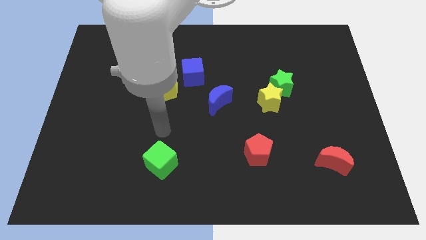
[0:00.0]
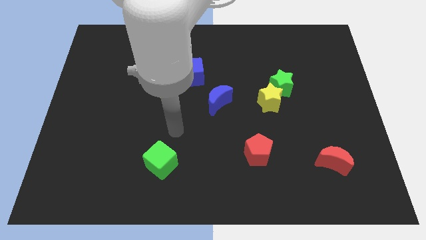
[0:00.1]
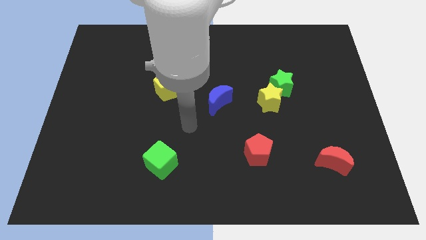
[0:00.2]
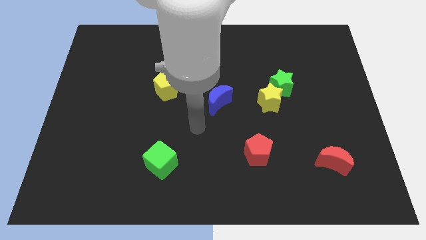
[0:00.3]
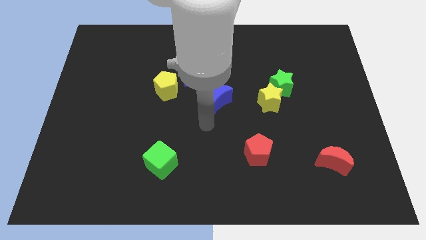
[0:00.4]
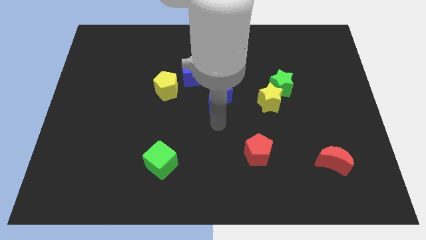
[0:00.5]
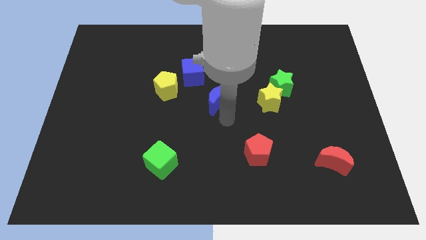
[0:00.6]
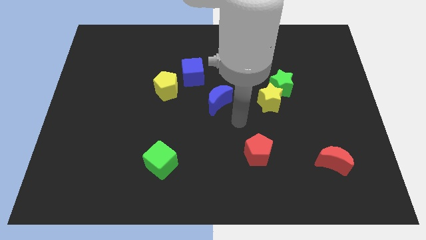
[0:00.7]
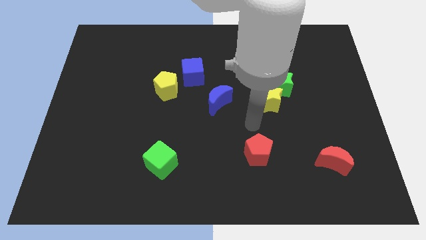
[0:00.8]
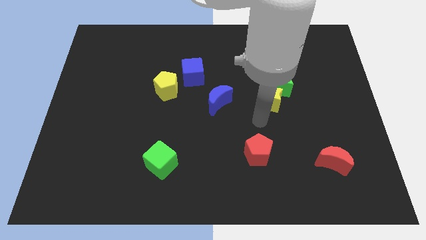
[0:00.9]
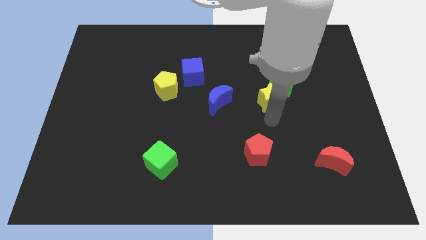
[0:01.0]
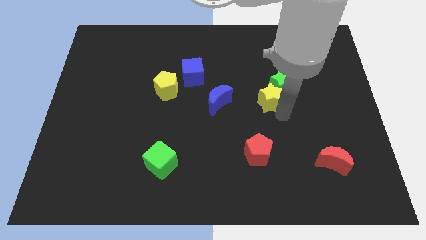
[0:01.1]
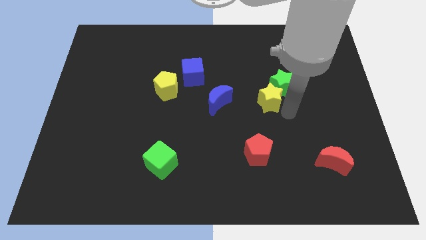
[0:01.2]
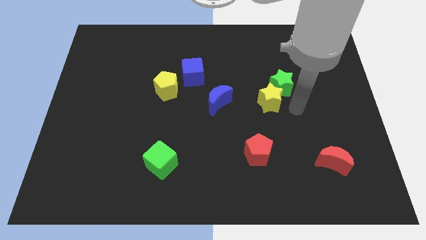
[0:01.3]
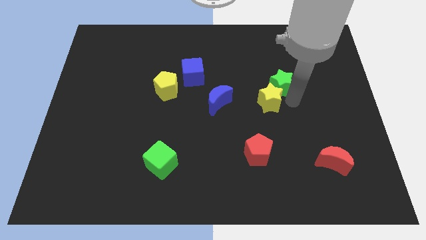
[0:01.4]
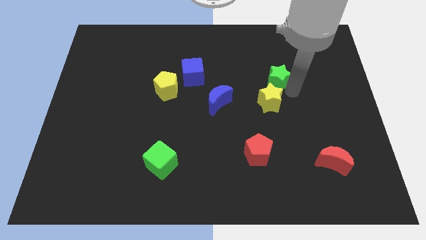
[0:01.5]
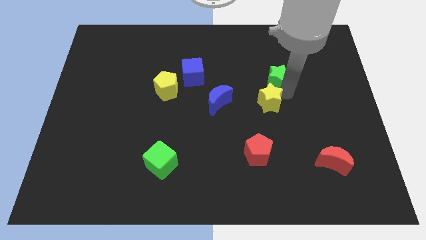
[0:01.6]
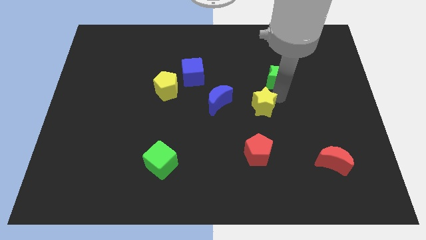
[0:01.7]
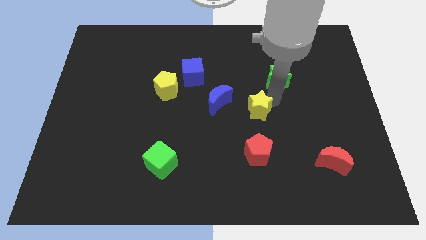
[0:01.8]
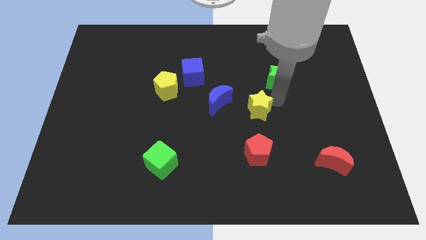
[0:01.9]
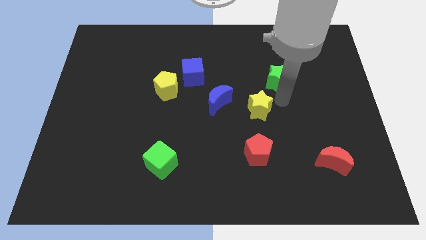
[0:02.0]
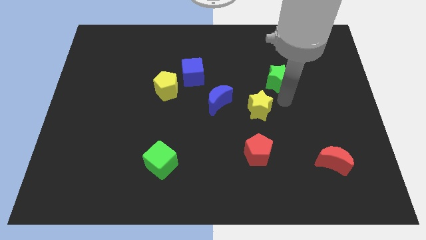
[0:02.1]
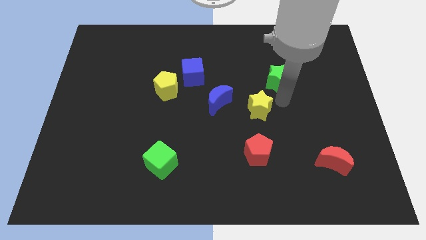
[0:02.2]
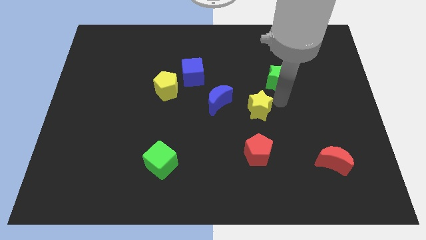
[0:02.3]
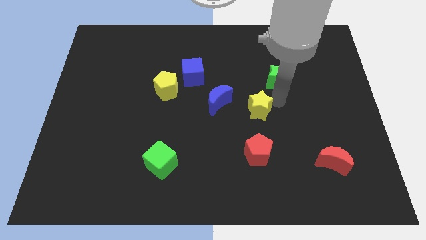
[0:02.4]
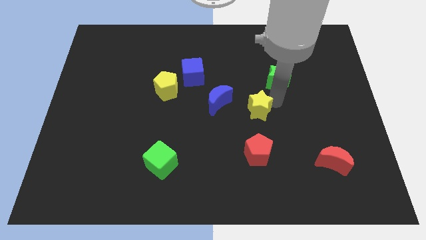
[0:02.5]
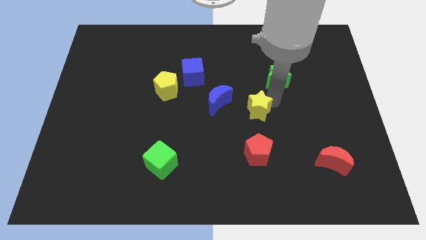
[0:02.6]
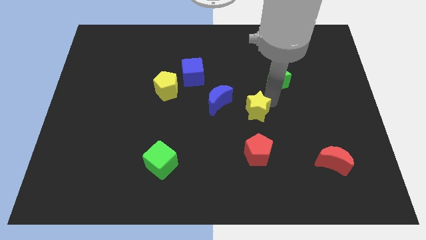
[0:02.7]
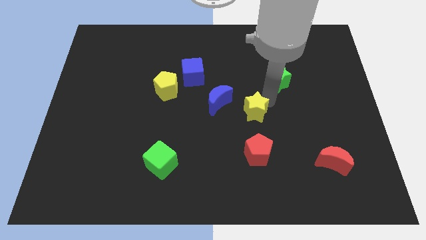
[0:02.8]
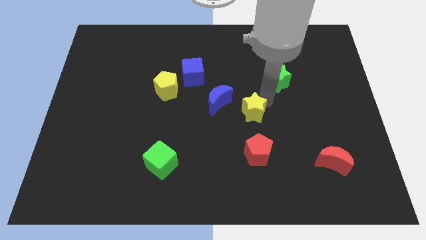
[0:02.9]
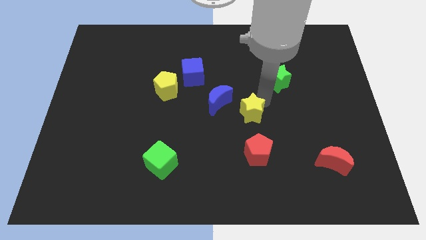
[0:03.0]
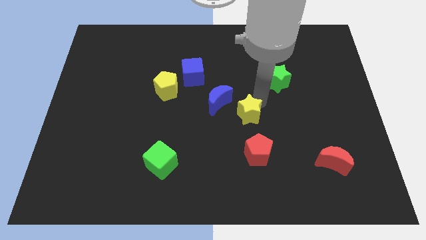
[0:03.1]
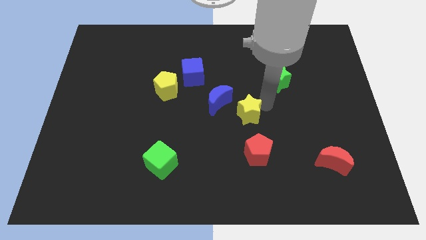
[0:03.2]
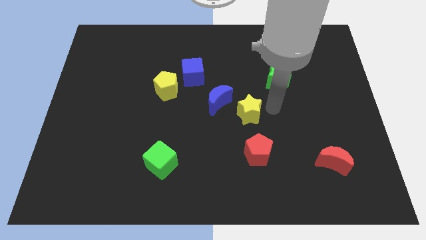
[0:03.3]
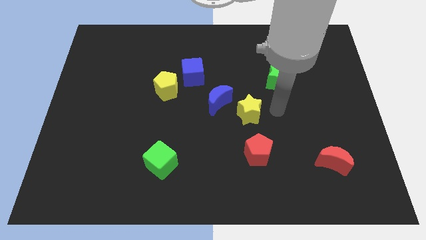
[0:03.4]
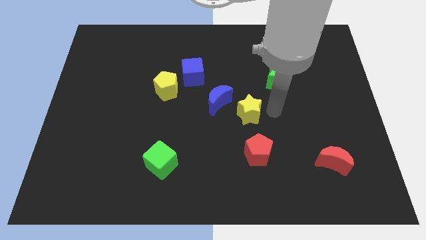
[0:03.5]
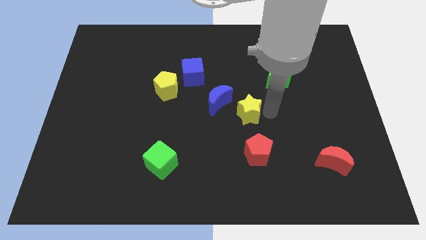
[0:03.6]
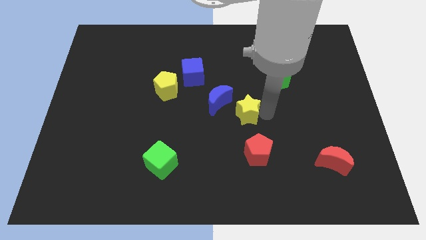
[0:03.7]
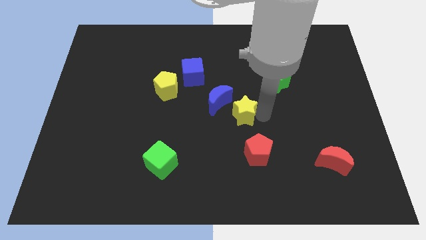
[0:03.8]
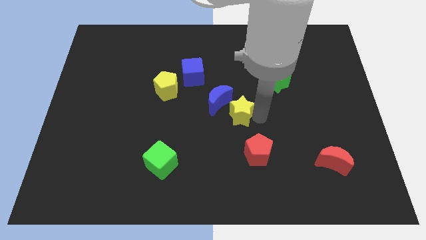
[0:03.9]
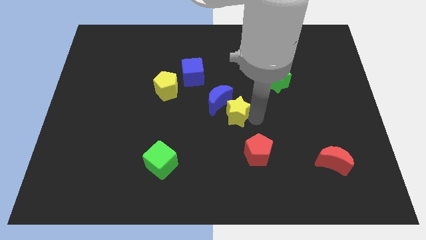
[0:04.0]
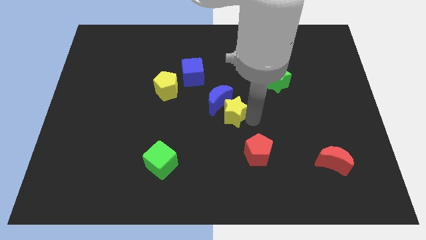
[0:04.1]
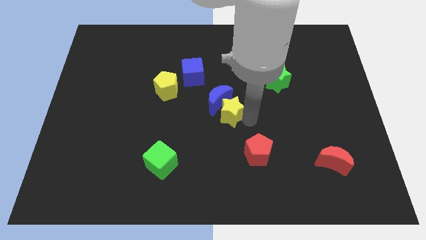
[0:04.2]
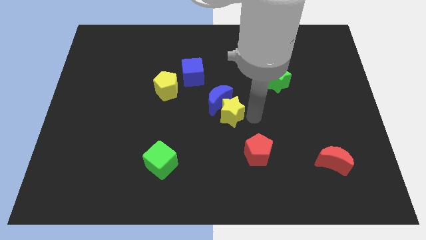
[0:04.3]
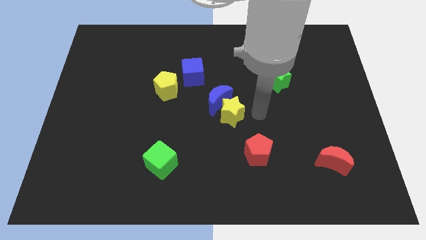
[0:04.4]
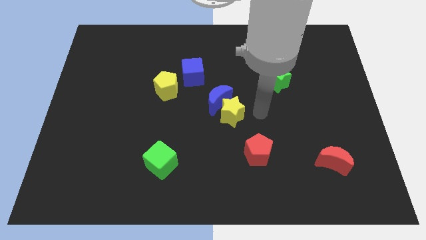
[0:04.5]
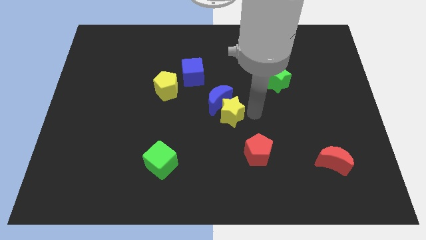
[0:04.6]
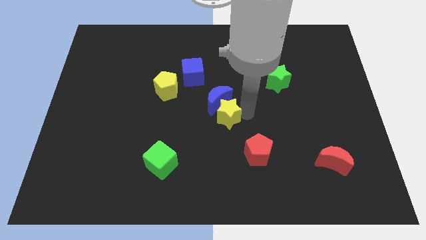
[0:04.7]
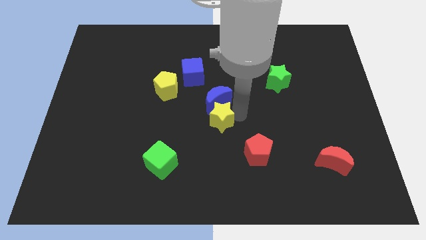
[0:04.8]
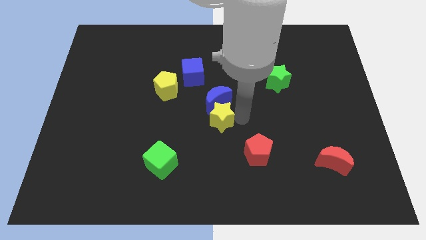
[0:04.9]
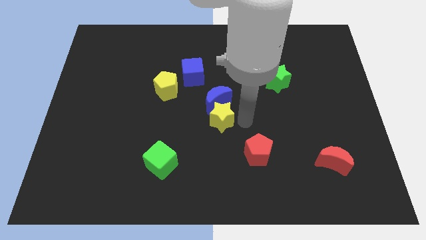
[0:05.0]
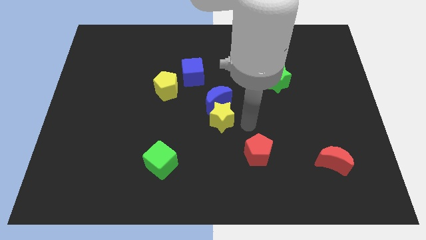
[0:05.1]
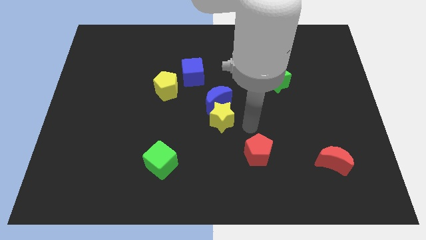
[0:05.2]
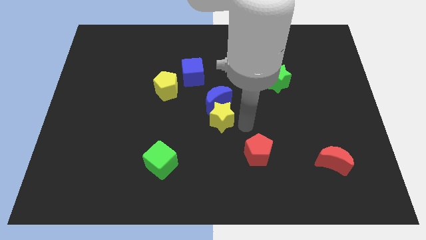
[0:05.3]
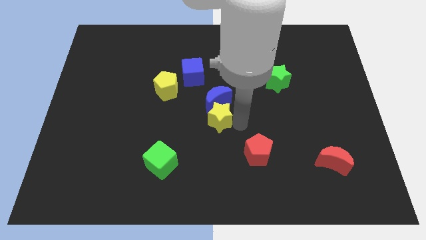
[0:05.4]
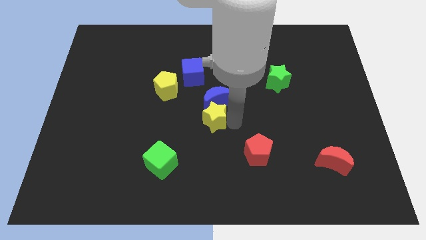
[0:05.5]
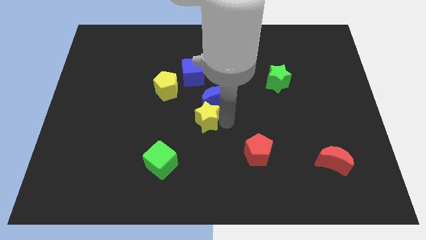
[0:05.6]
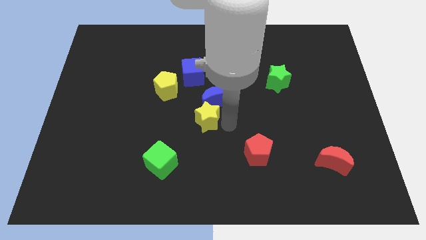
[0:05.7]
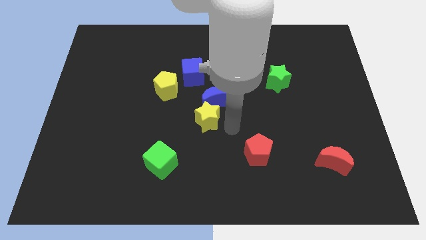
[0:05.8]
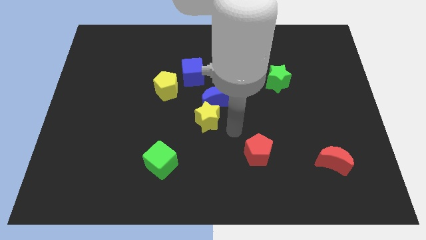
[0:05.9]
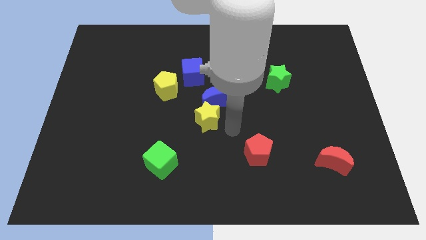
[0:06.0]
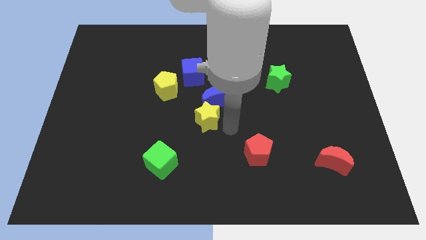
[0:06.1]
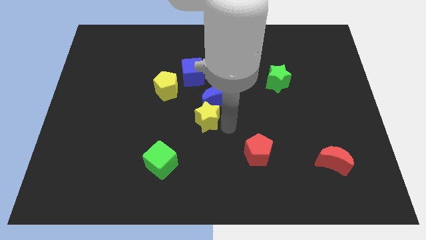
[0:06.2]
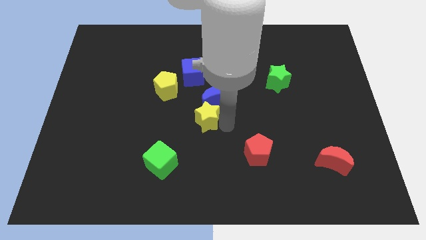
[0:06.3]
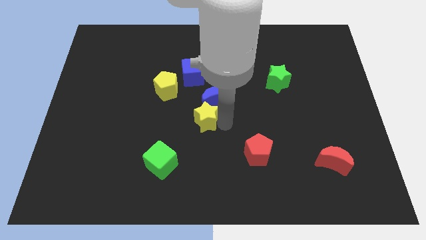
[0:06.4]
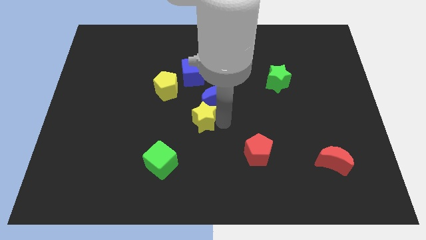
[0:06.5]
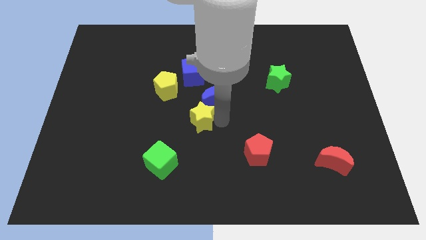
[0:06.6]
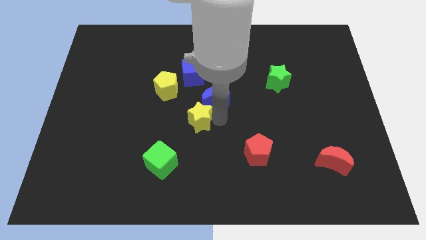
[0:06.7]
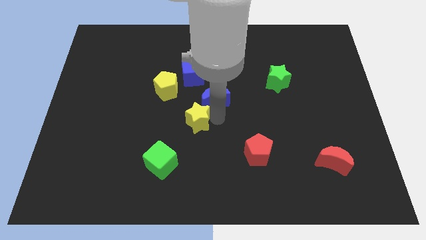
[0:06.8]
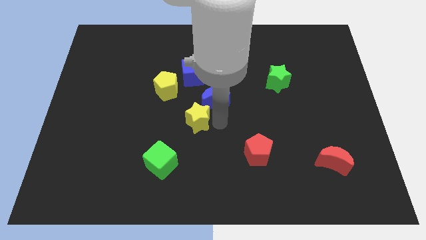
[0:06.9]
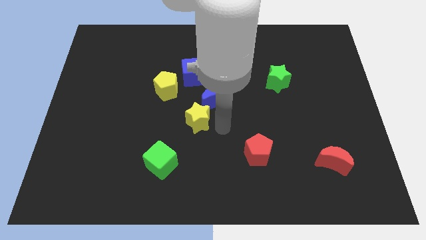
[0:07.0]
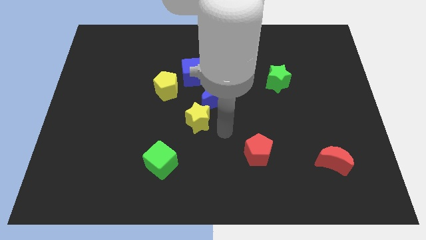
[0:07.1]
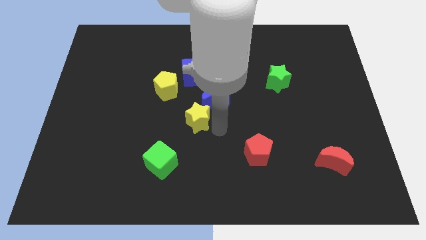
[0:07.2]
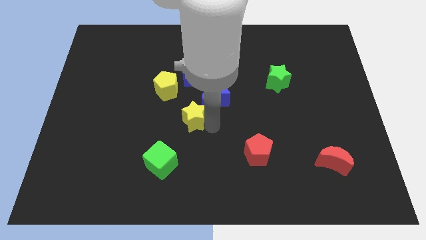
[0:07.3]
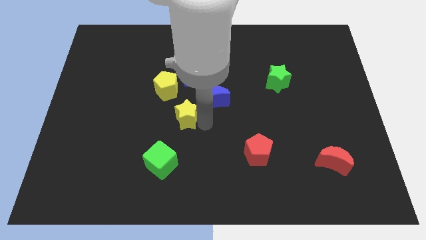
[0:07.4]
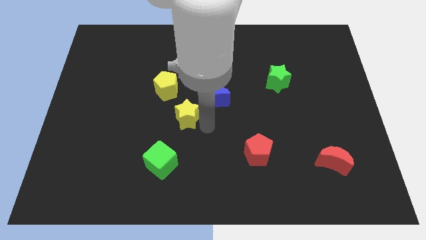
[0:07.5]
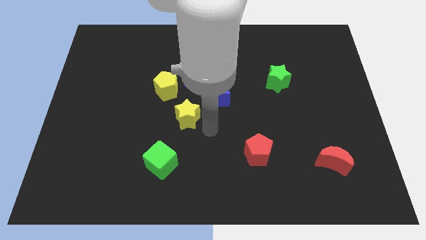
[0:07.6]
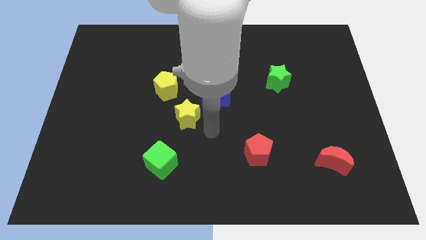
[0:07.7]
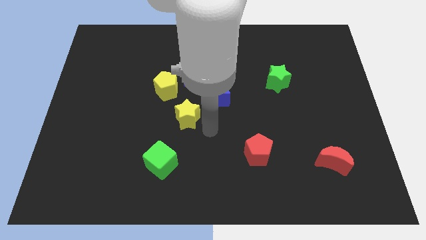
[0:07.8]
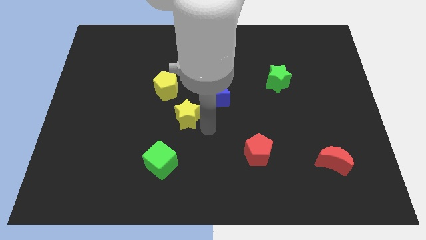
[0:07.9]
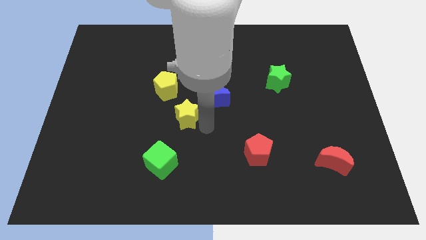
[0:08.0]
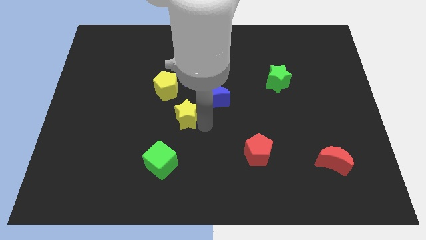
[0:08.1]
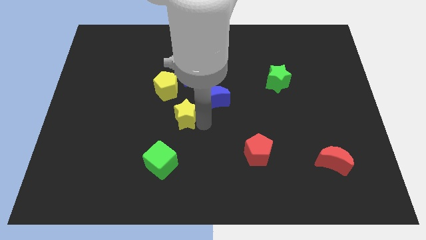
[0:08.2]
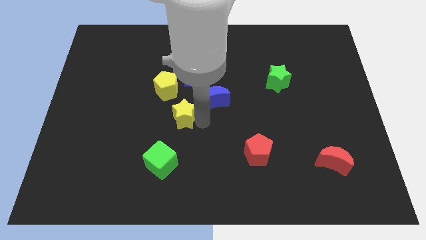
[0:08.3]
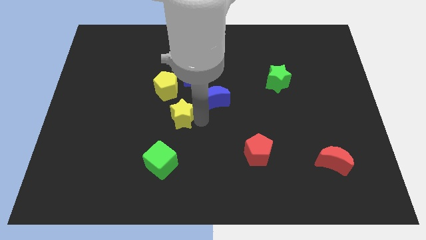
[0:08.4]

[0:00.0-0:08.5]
push the yellow star to the left
